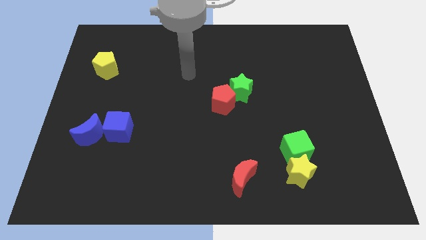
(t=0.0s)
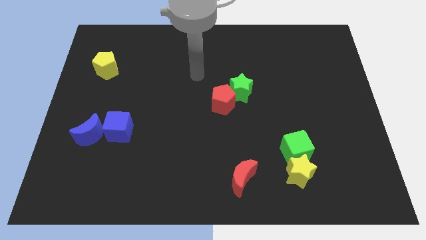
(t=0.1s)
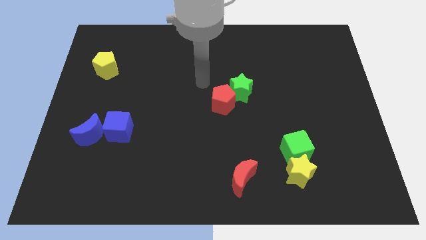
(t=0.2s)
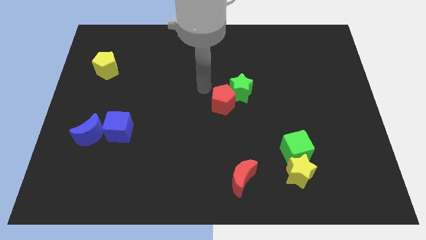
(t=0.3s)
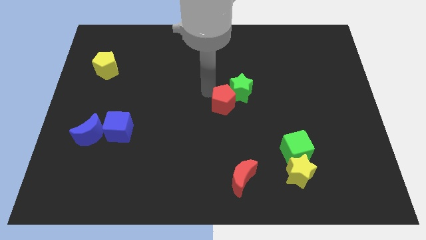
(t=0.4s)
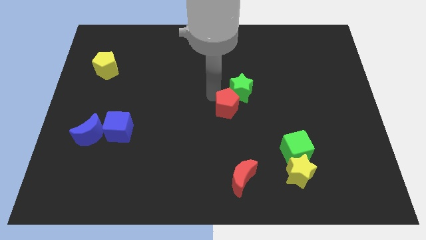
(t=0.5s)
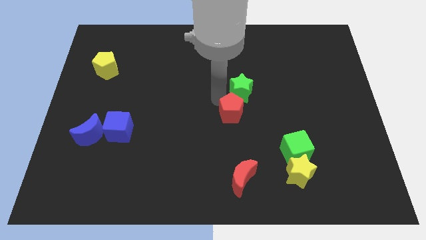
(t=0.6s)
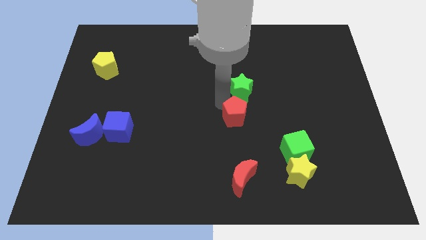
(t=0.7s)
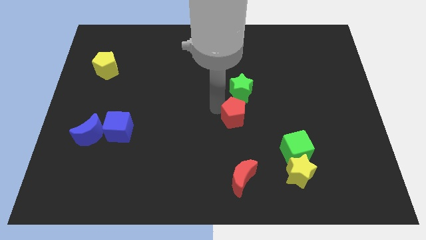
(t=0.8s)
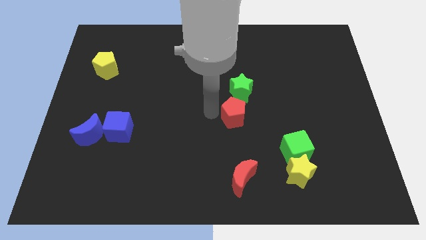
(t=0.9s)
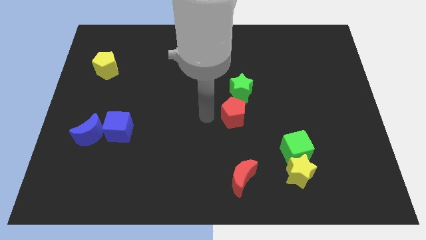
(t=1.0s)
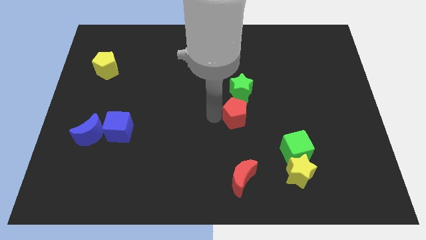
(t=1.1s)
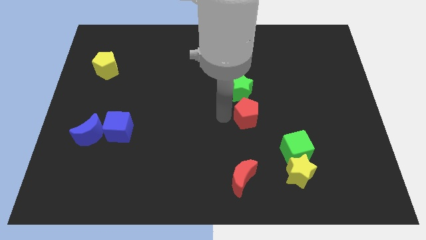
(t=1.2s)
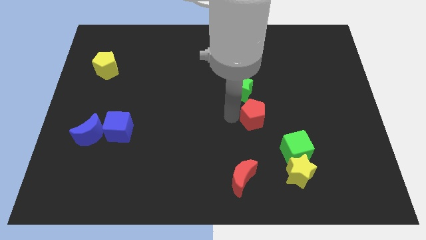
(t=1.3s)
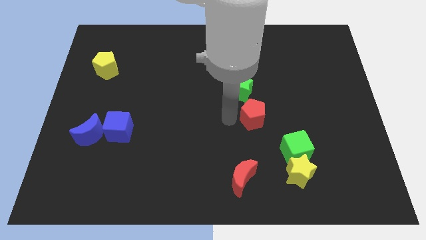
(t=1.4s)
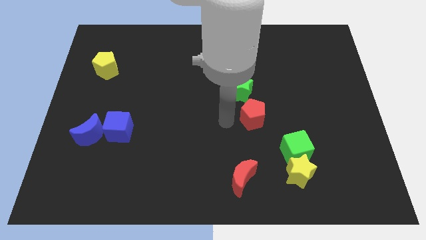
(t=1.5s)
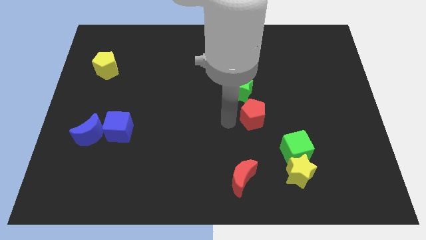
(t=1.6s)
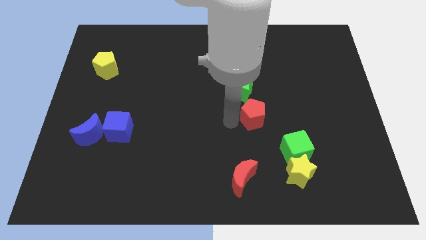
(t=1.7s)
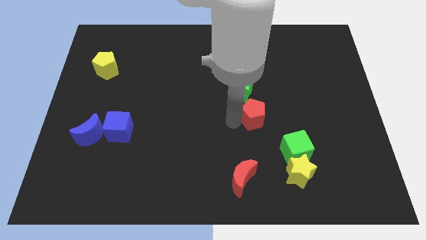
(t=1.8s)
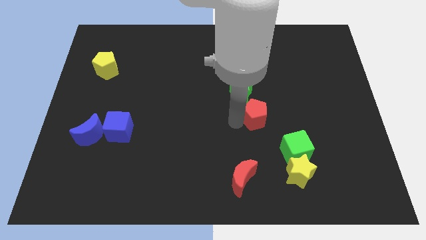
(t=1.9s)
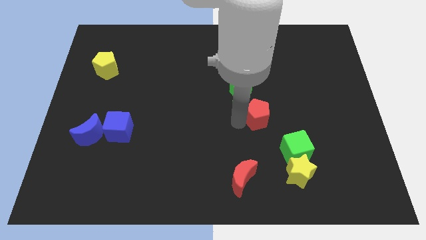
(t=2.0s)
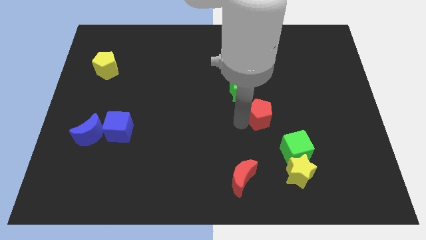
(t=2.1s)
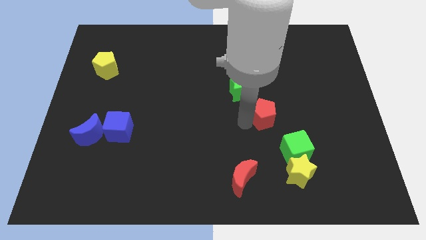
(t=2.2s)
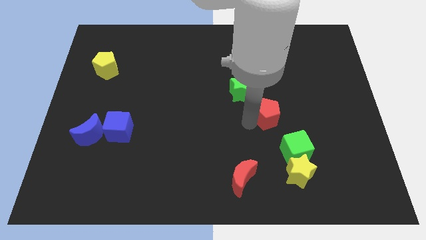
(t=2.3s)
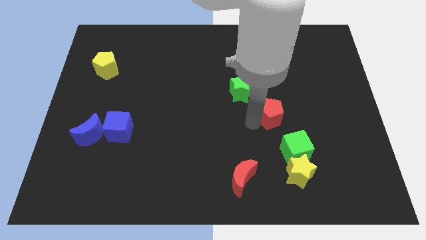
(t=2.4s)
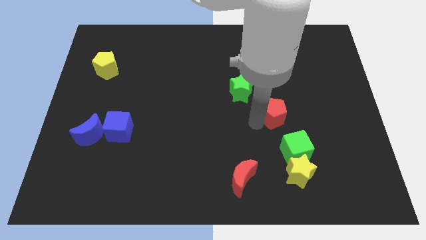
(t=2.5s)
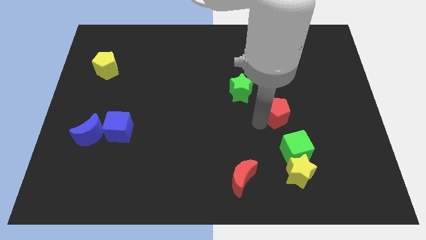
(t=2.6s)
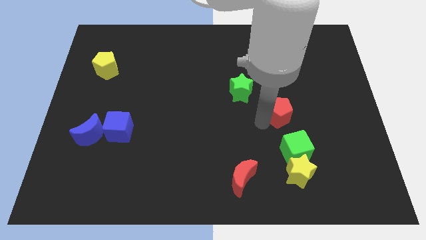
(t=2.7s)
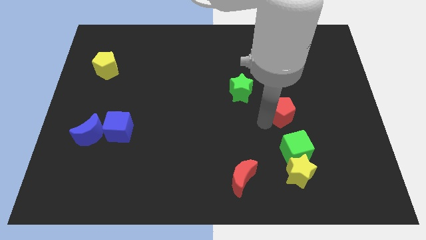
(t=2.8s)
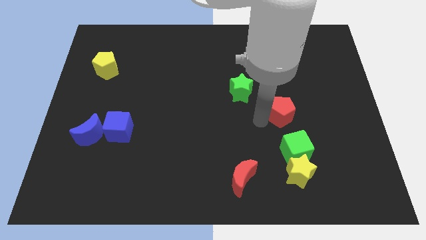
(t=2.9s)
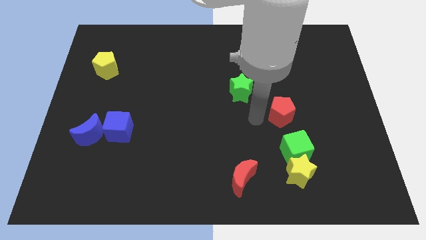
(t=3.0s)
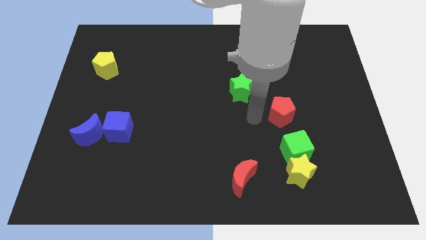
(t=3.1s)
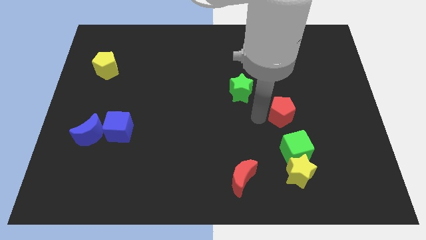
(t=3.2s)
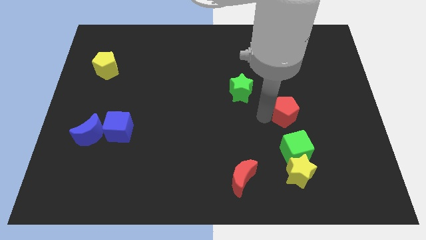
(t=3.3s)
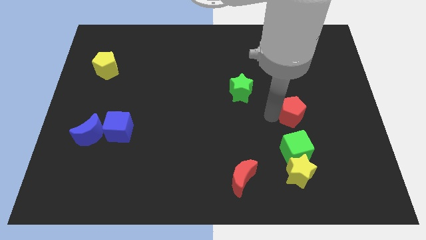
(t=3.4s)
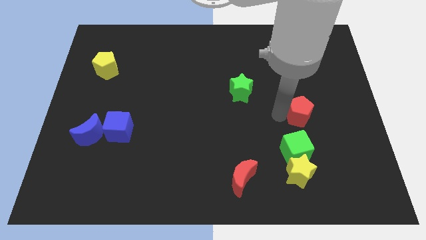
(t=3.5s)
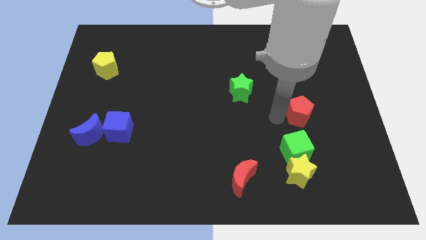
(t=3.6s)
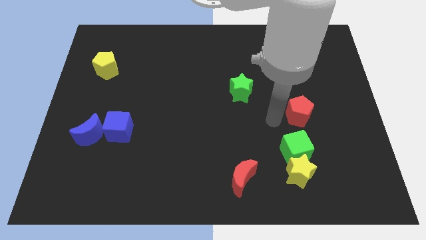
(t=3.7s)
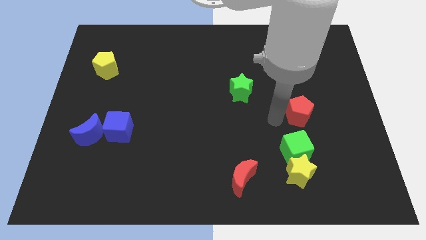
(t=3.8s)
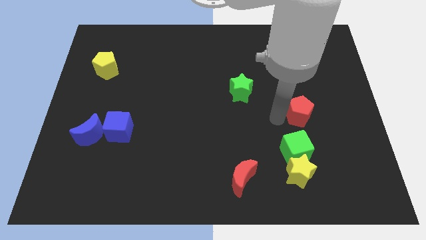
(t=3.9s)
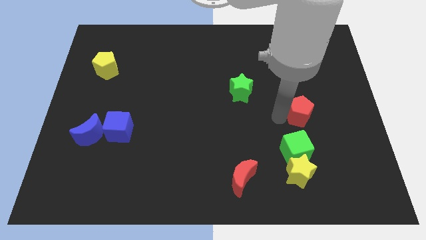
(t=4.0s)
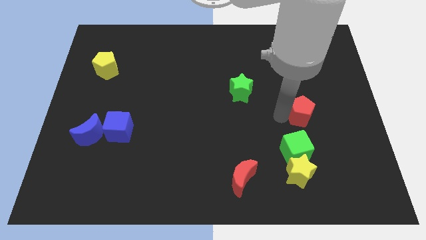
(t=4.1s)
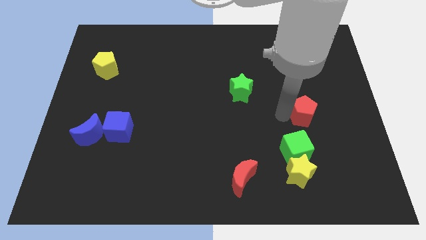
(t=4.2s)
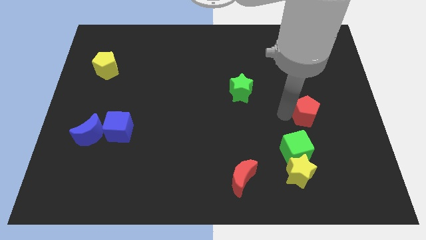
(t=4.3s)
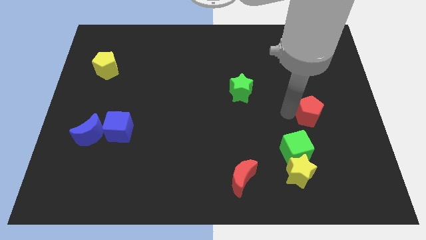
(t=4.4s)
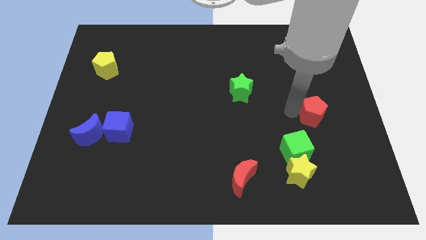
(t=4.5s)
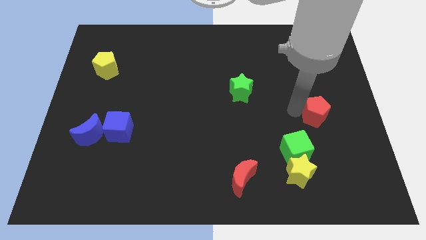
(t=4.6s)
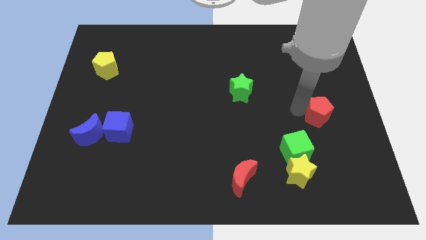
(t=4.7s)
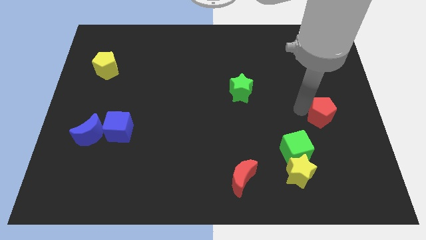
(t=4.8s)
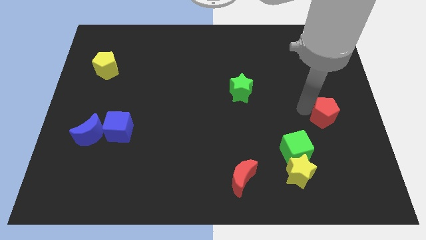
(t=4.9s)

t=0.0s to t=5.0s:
put the red pentagon to the right side of the board
